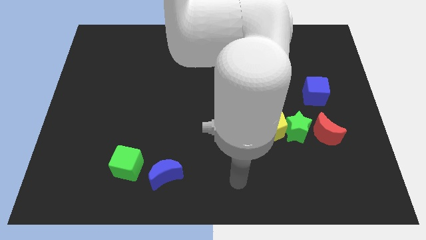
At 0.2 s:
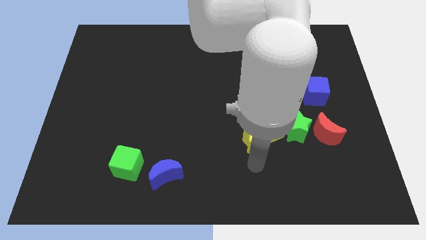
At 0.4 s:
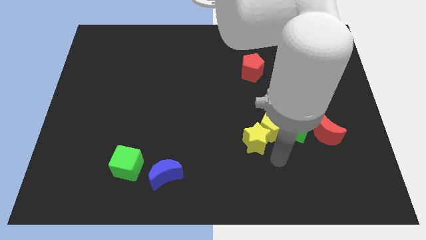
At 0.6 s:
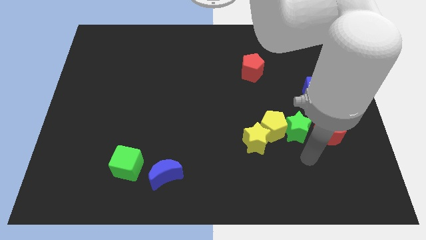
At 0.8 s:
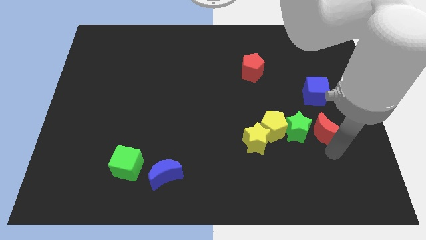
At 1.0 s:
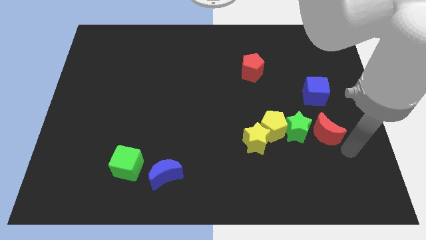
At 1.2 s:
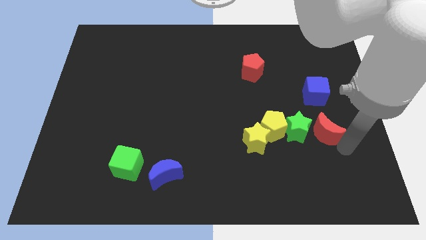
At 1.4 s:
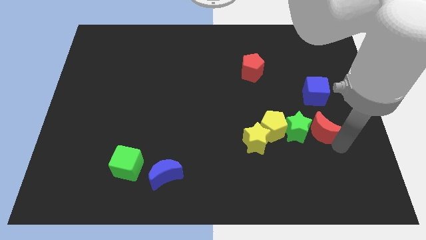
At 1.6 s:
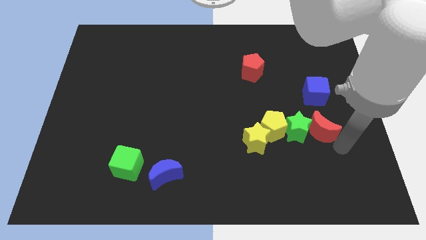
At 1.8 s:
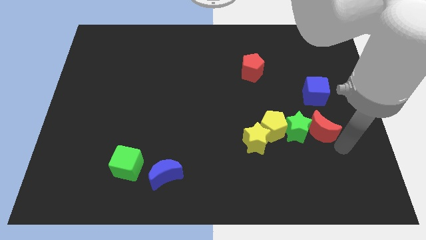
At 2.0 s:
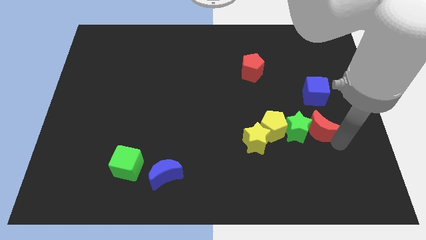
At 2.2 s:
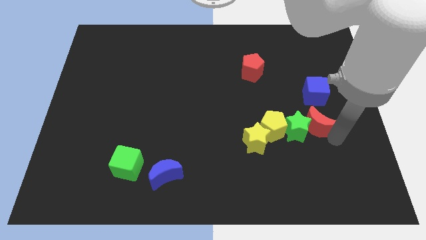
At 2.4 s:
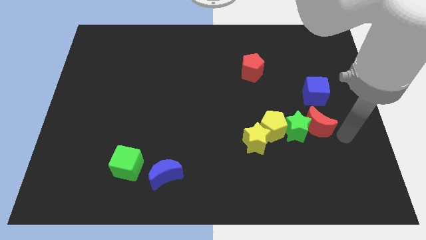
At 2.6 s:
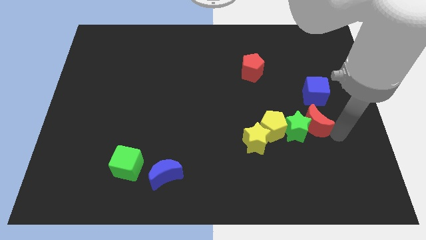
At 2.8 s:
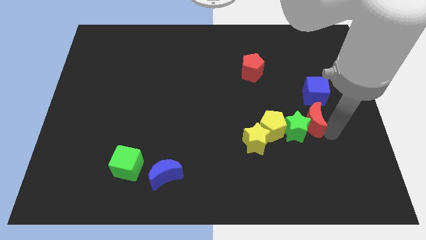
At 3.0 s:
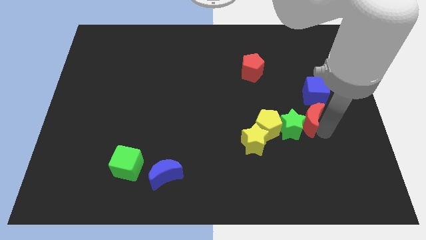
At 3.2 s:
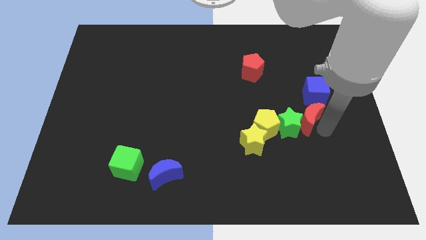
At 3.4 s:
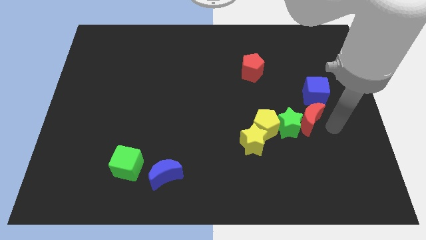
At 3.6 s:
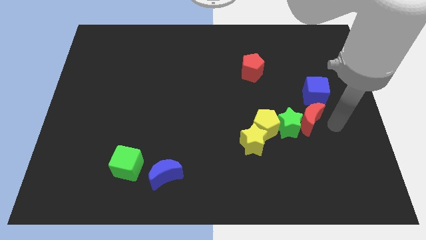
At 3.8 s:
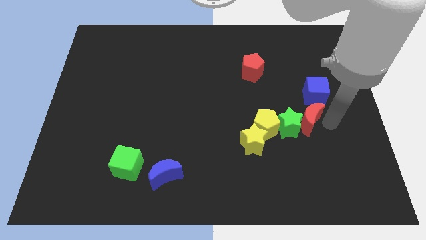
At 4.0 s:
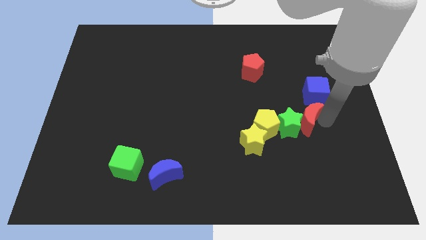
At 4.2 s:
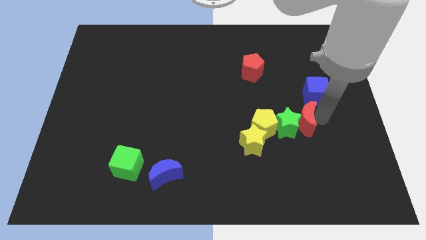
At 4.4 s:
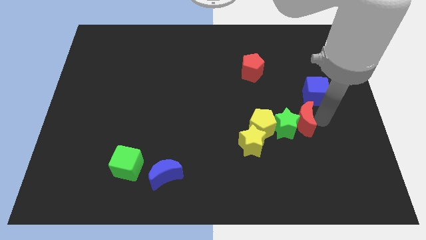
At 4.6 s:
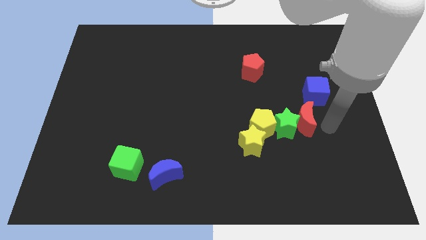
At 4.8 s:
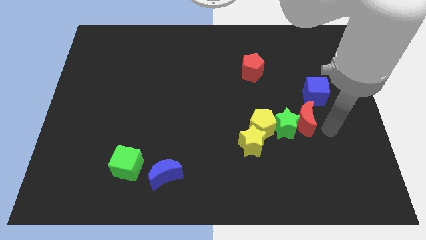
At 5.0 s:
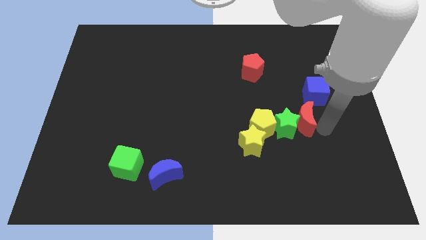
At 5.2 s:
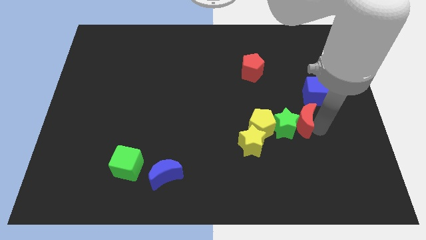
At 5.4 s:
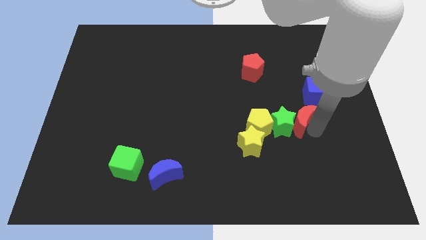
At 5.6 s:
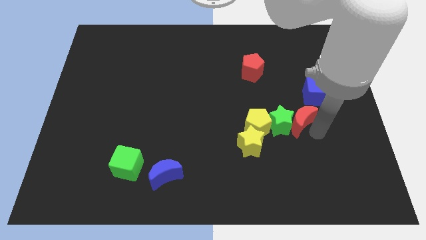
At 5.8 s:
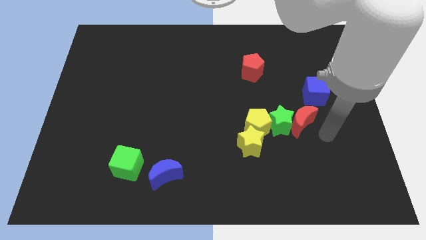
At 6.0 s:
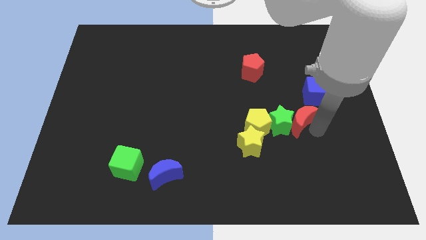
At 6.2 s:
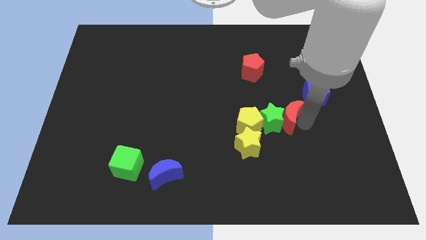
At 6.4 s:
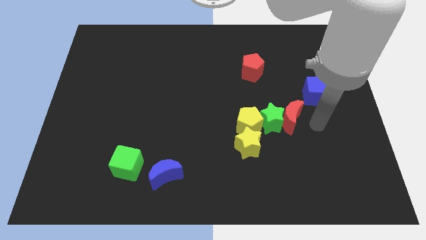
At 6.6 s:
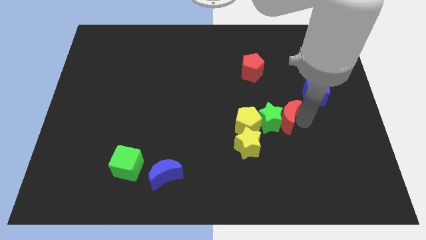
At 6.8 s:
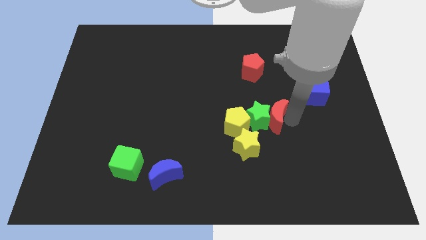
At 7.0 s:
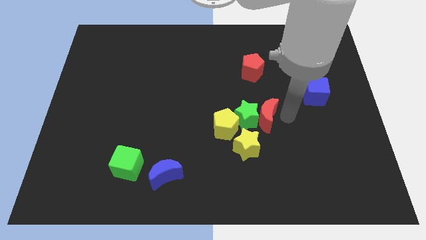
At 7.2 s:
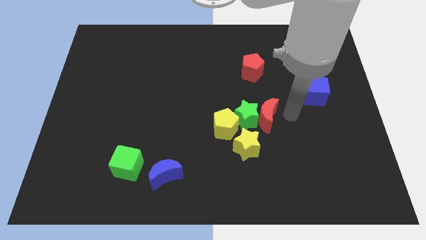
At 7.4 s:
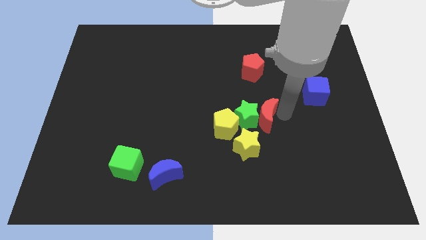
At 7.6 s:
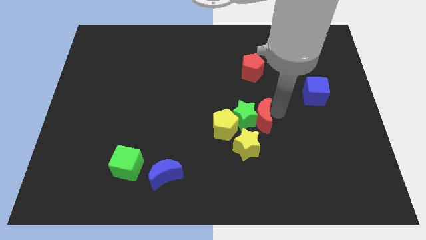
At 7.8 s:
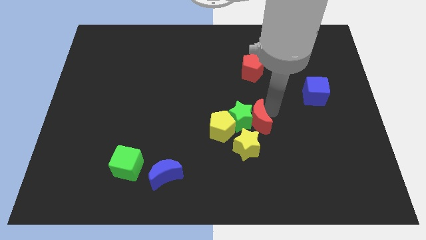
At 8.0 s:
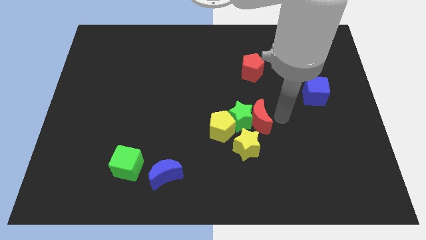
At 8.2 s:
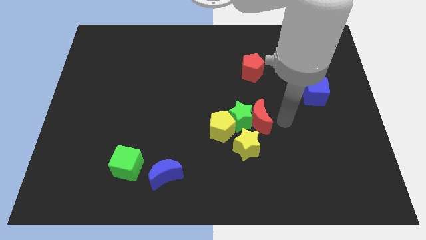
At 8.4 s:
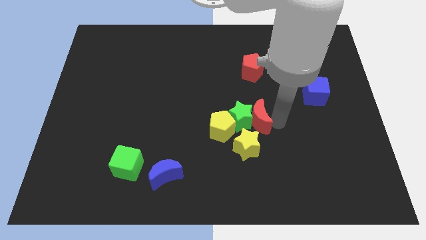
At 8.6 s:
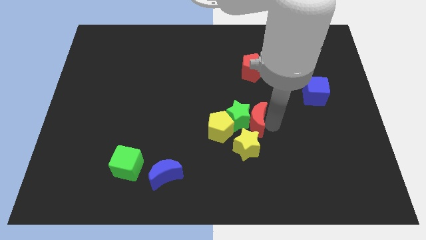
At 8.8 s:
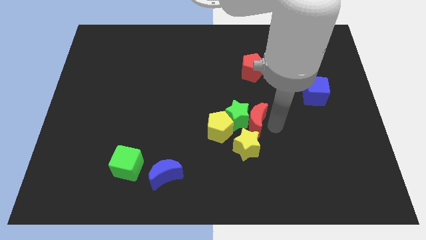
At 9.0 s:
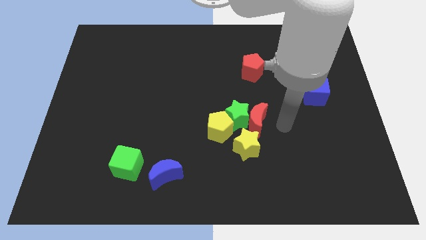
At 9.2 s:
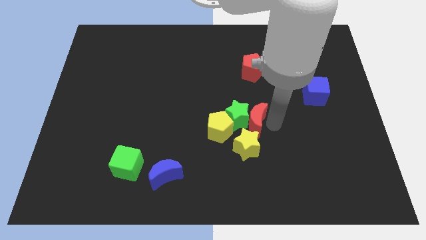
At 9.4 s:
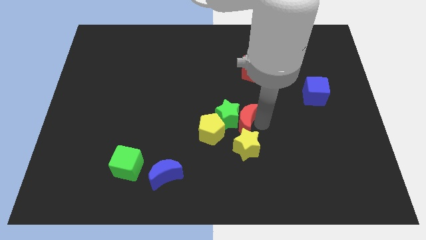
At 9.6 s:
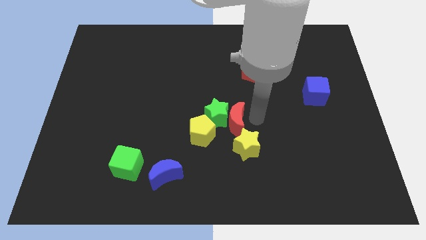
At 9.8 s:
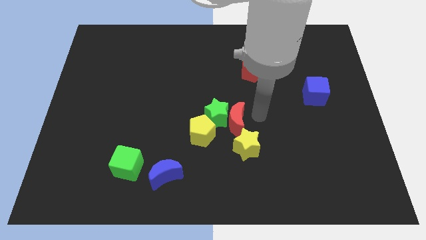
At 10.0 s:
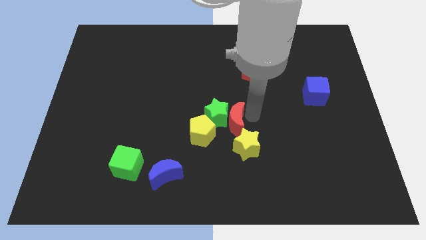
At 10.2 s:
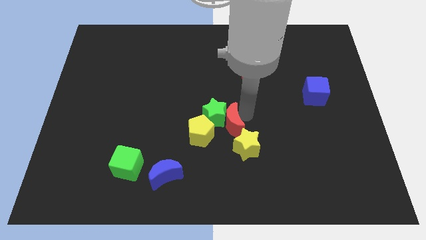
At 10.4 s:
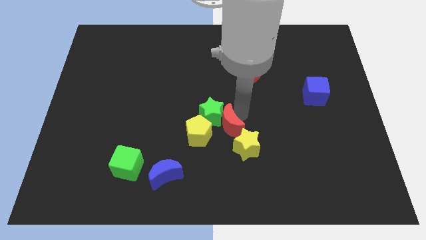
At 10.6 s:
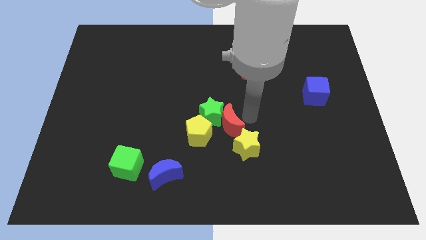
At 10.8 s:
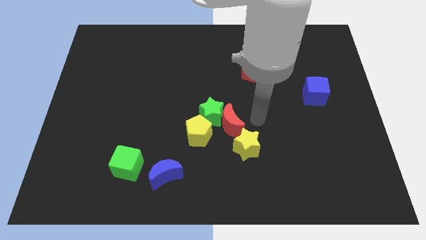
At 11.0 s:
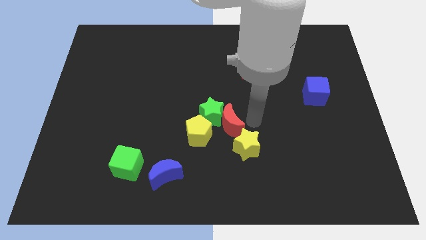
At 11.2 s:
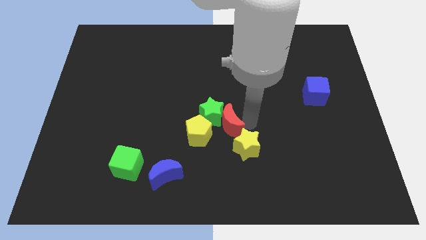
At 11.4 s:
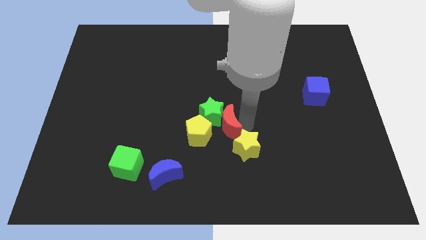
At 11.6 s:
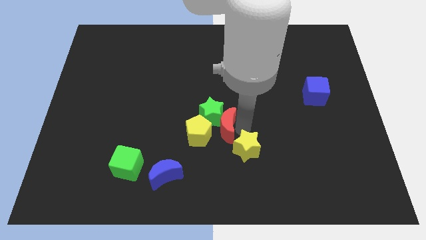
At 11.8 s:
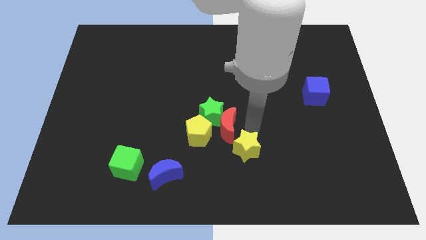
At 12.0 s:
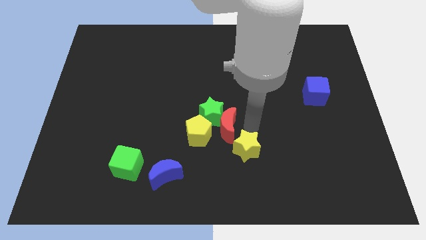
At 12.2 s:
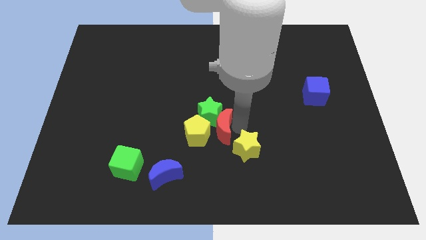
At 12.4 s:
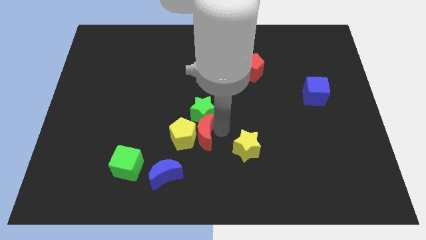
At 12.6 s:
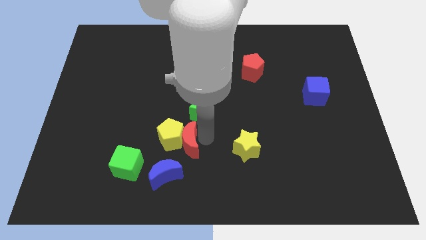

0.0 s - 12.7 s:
slide the red moon above the blue moon

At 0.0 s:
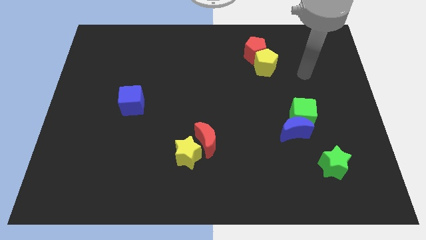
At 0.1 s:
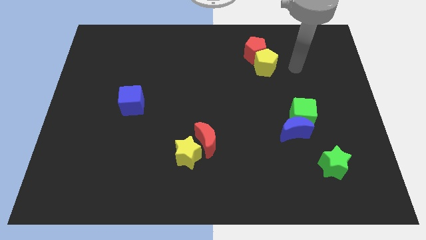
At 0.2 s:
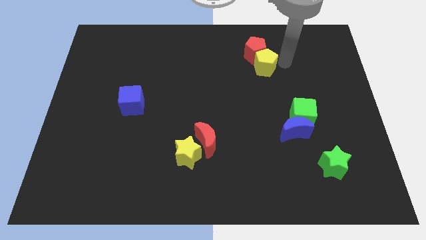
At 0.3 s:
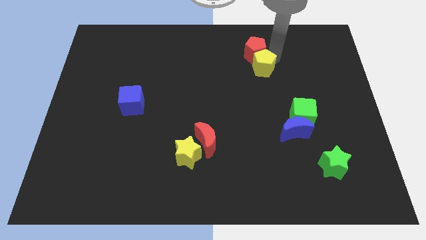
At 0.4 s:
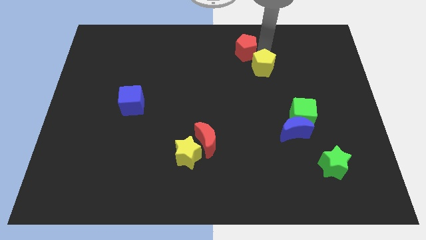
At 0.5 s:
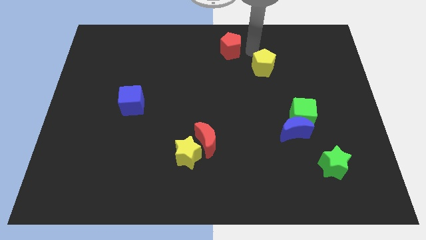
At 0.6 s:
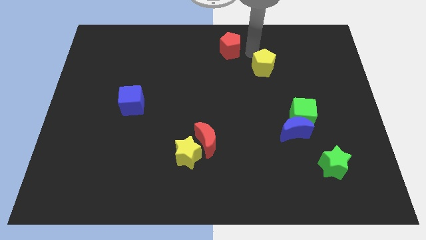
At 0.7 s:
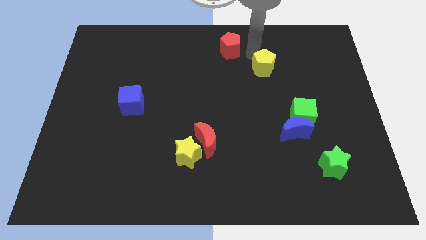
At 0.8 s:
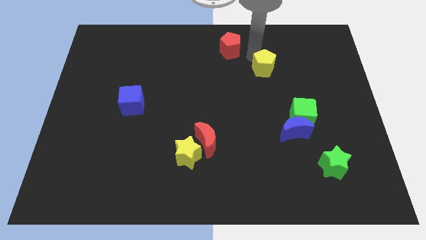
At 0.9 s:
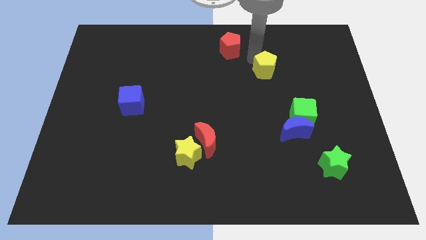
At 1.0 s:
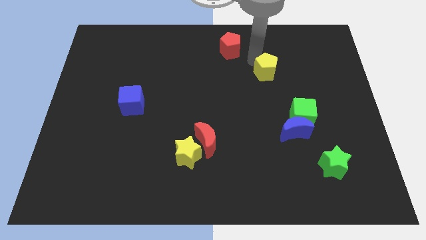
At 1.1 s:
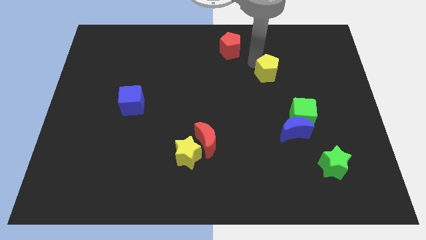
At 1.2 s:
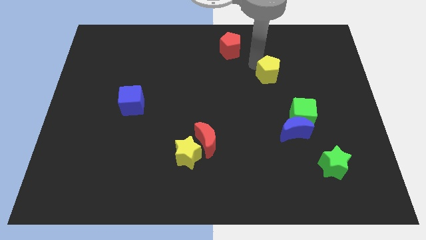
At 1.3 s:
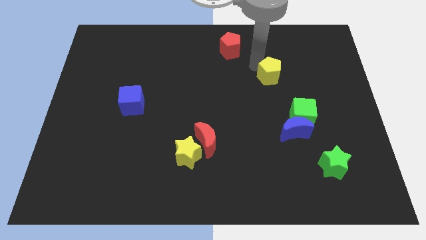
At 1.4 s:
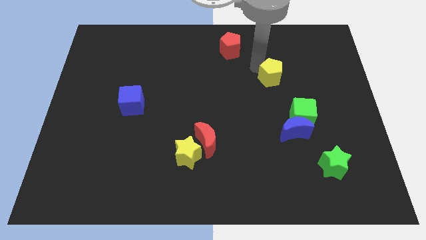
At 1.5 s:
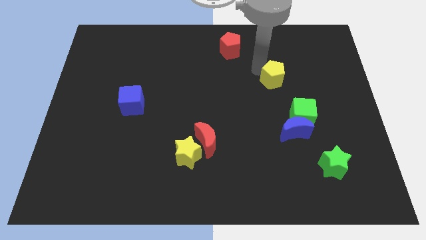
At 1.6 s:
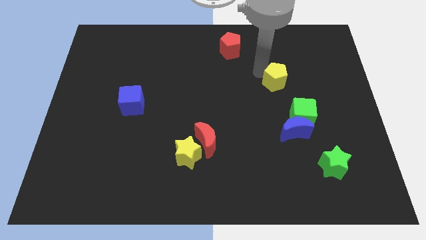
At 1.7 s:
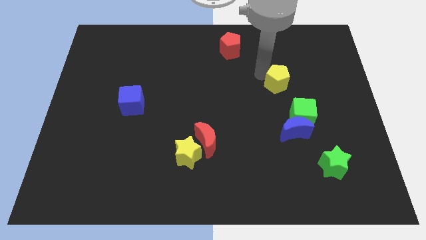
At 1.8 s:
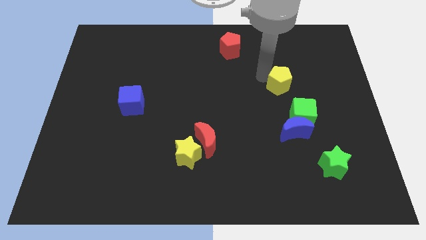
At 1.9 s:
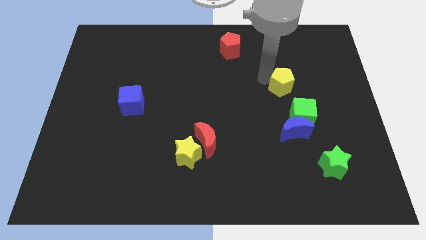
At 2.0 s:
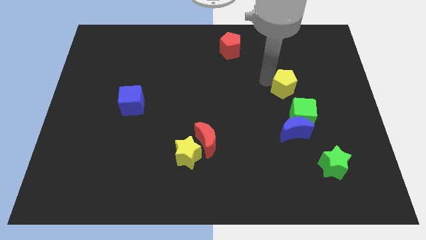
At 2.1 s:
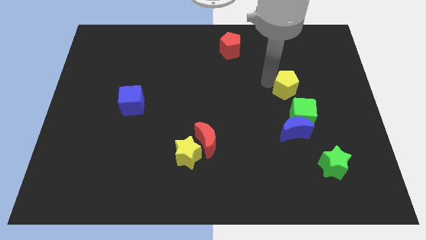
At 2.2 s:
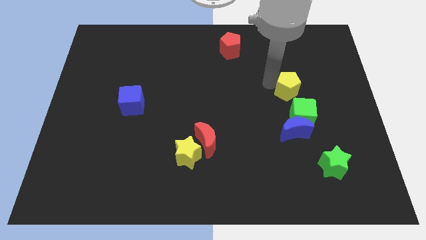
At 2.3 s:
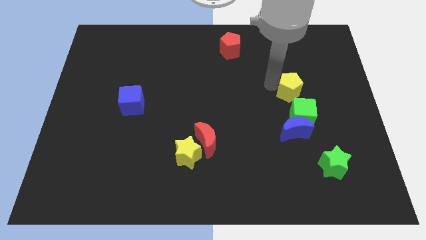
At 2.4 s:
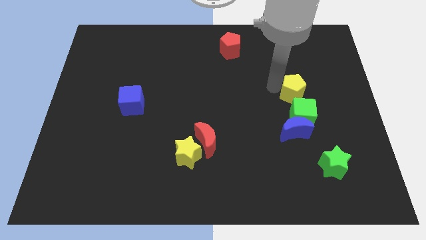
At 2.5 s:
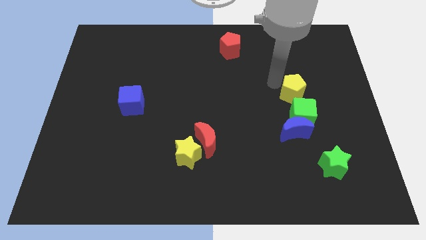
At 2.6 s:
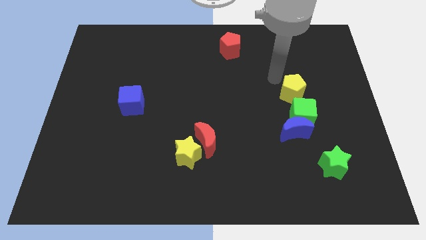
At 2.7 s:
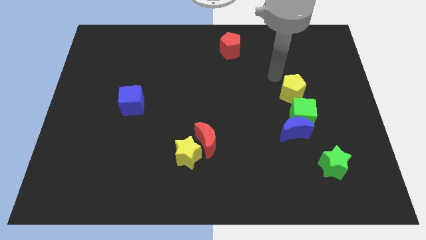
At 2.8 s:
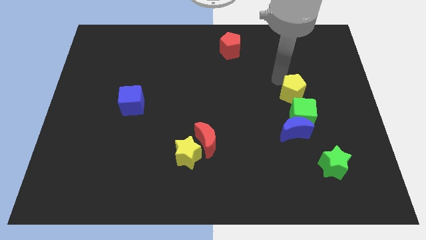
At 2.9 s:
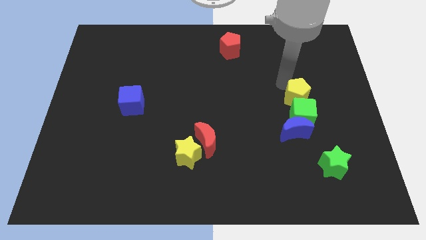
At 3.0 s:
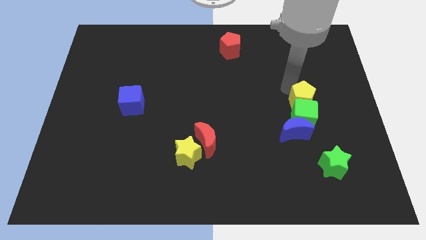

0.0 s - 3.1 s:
push the yellow pentagon to the top right of the blue moon
